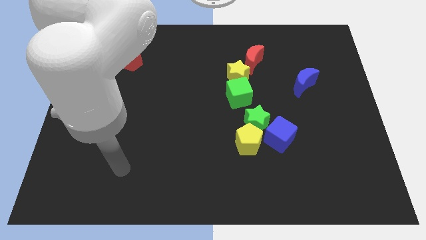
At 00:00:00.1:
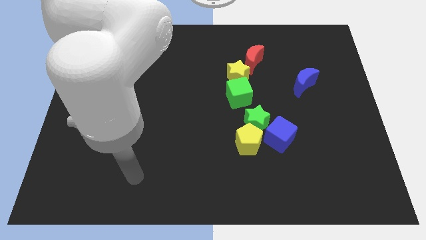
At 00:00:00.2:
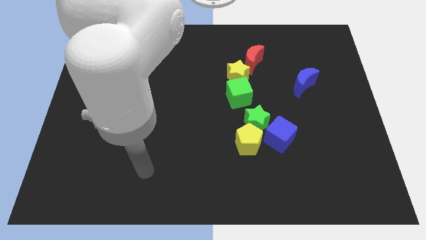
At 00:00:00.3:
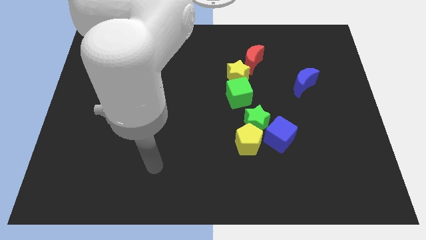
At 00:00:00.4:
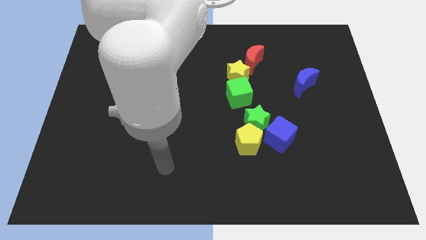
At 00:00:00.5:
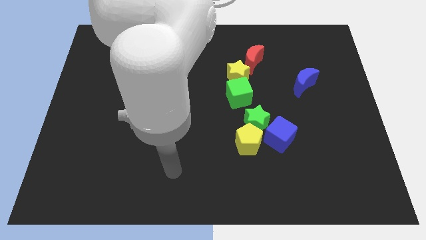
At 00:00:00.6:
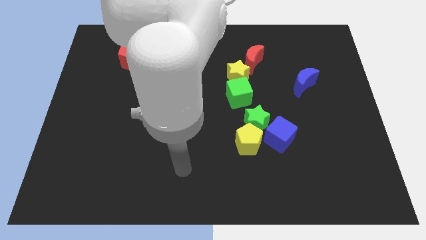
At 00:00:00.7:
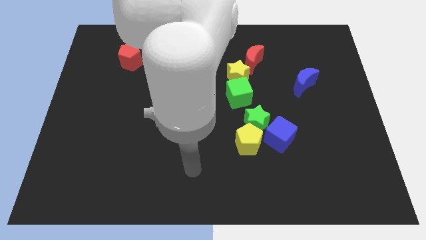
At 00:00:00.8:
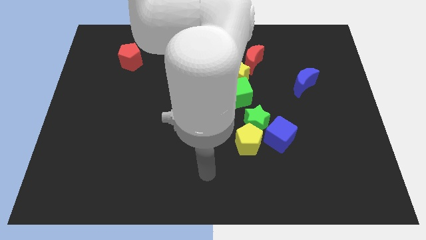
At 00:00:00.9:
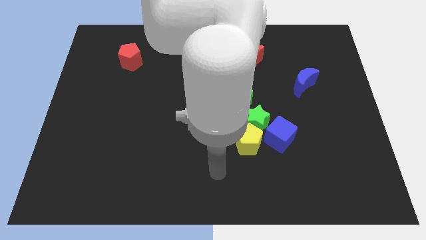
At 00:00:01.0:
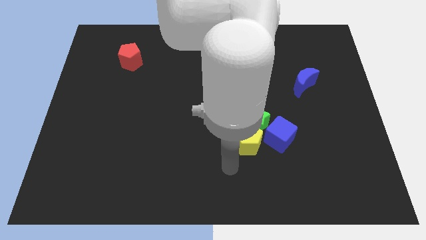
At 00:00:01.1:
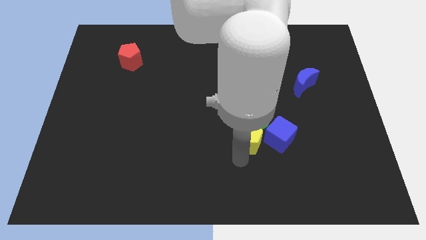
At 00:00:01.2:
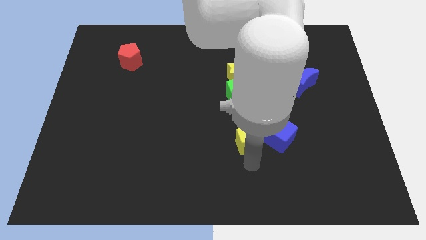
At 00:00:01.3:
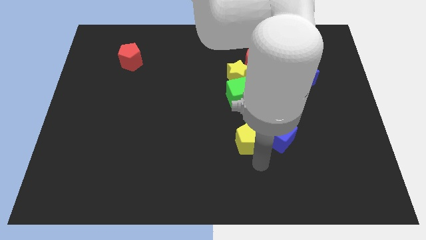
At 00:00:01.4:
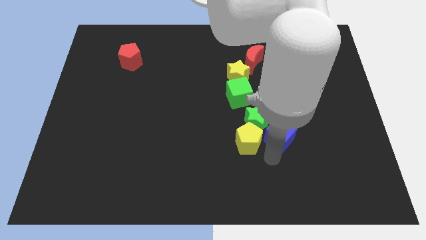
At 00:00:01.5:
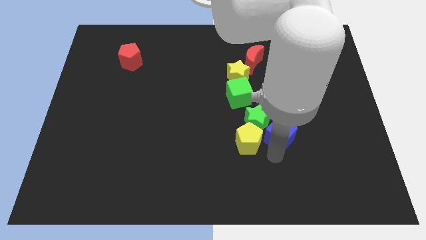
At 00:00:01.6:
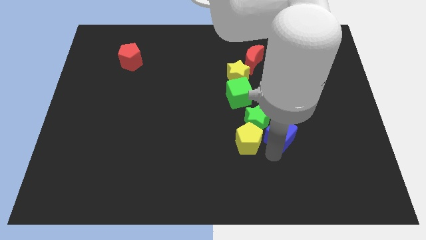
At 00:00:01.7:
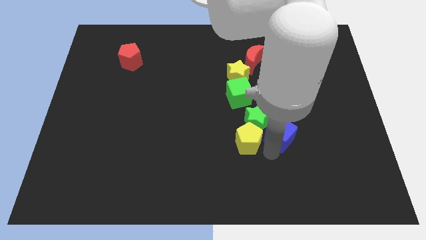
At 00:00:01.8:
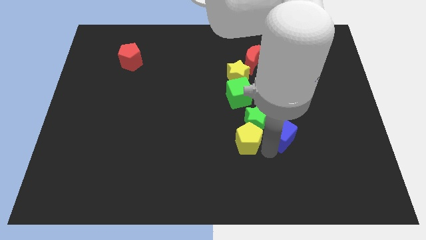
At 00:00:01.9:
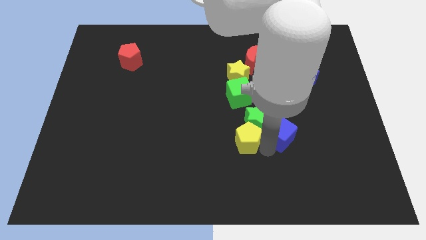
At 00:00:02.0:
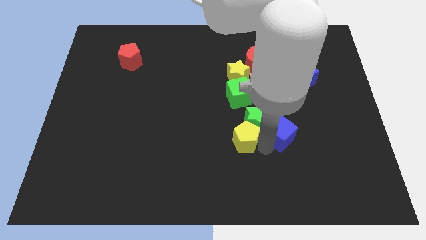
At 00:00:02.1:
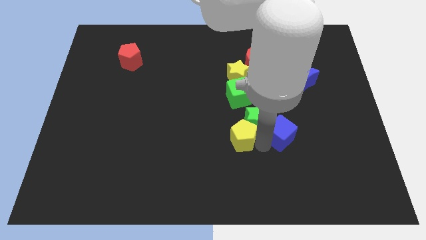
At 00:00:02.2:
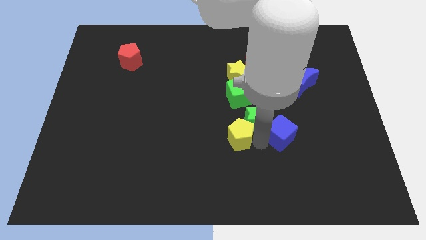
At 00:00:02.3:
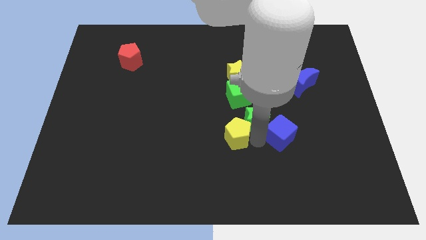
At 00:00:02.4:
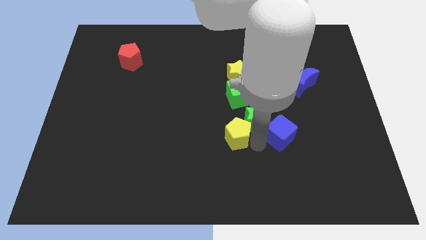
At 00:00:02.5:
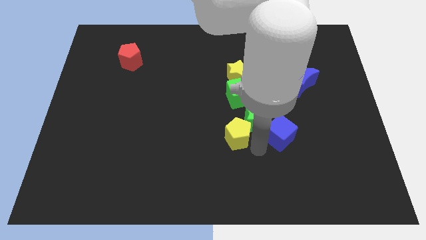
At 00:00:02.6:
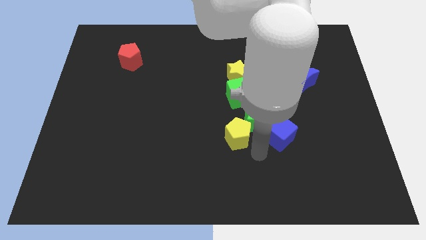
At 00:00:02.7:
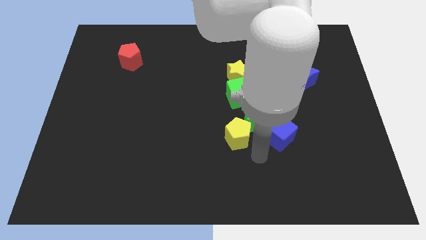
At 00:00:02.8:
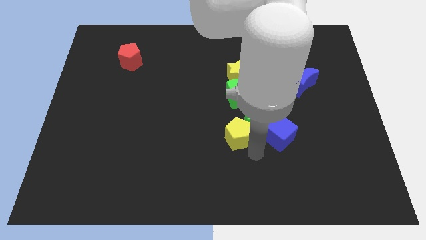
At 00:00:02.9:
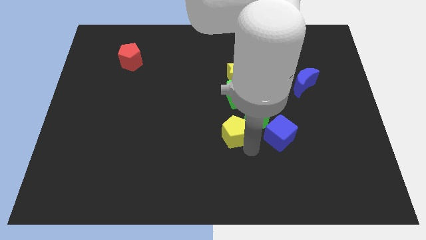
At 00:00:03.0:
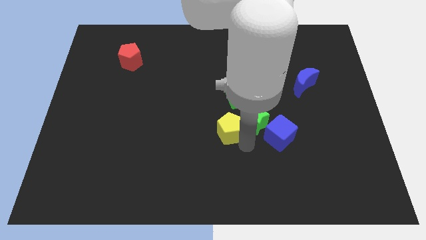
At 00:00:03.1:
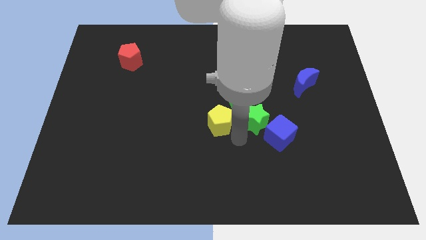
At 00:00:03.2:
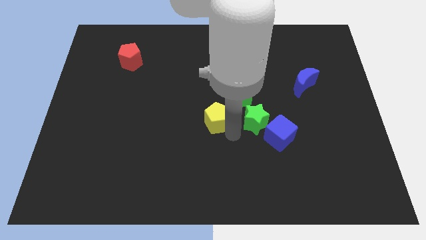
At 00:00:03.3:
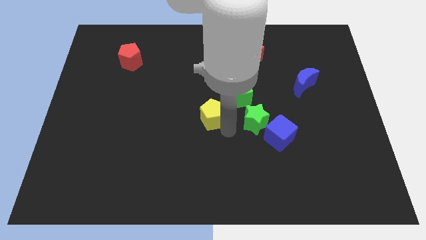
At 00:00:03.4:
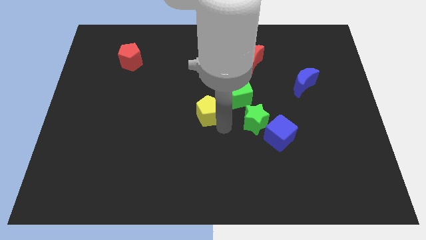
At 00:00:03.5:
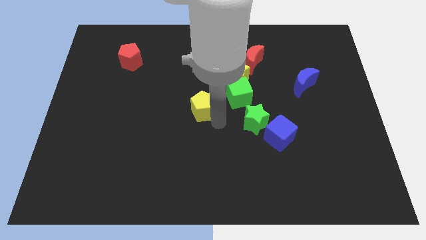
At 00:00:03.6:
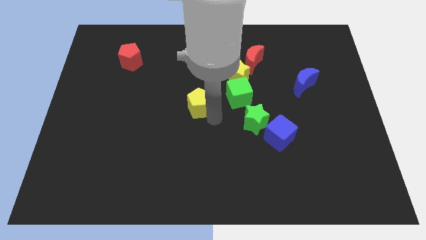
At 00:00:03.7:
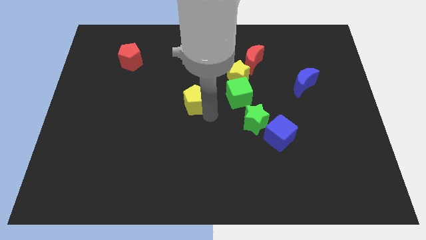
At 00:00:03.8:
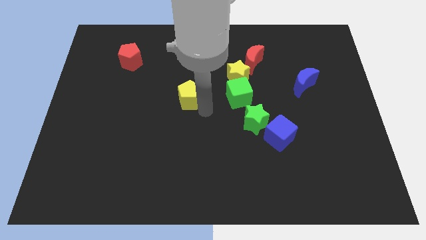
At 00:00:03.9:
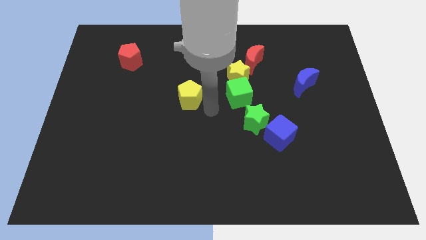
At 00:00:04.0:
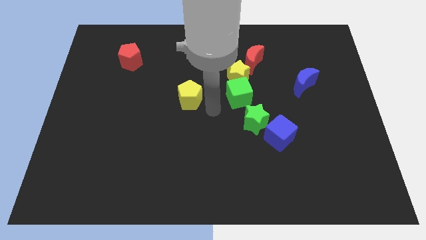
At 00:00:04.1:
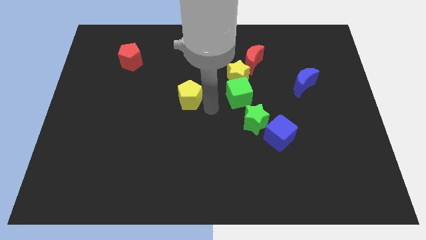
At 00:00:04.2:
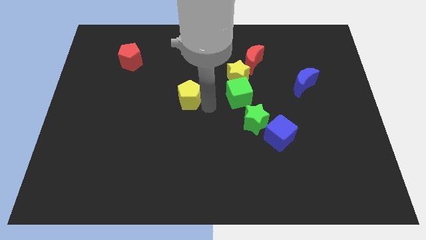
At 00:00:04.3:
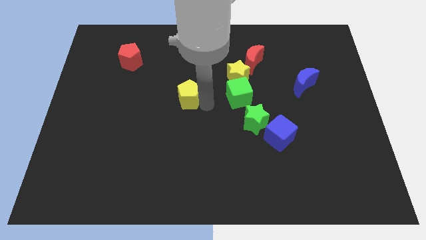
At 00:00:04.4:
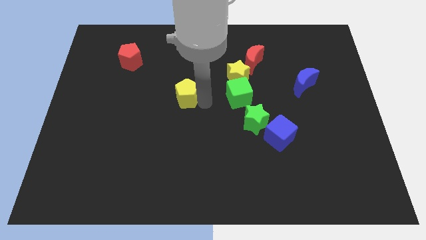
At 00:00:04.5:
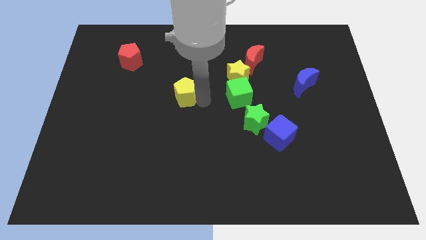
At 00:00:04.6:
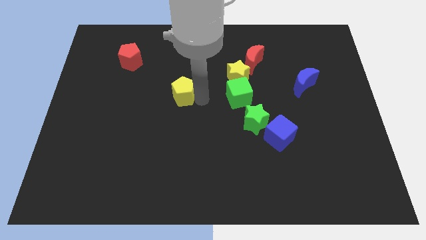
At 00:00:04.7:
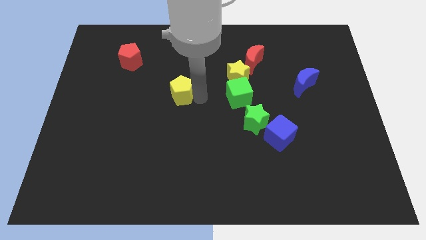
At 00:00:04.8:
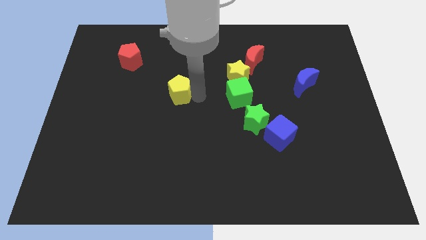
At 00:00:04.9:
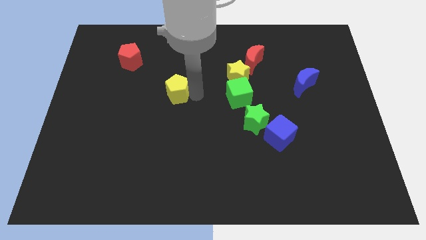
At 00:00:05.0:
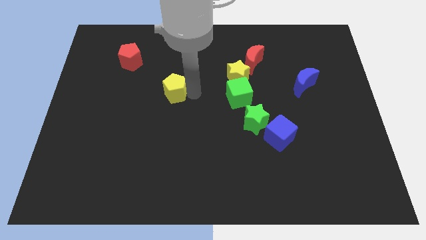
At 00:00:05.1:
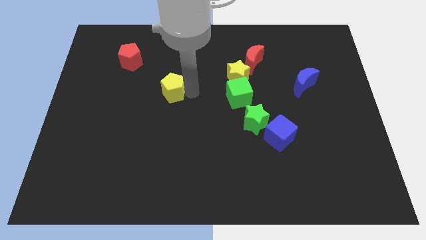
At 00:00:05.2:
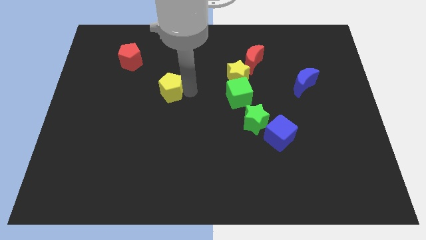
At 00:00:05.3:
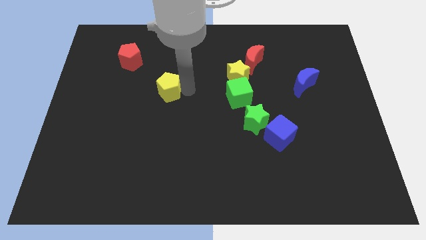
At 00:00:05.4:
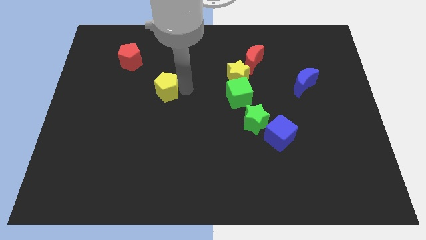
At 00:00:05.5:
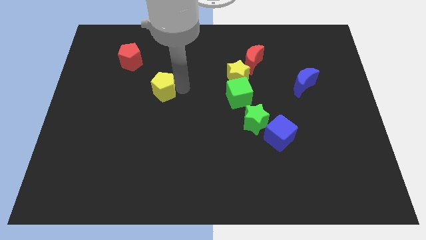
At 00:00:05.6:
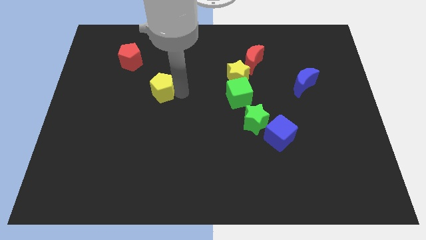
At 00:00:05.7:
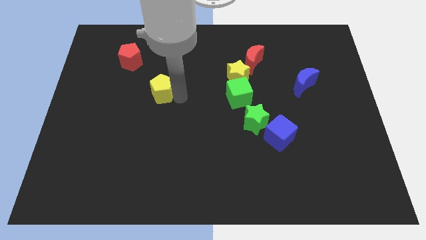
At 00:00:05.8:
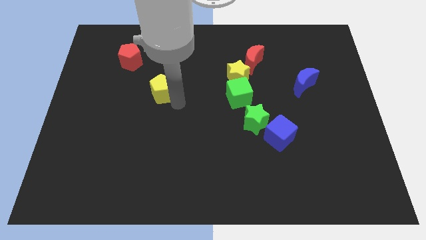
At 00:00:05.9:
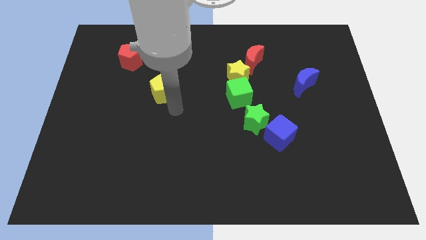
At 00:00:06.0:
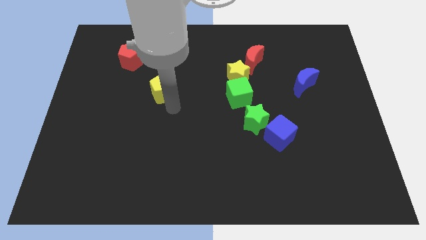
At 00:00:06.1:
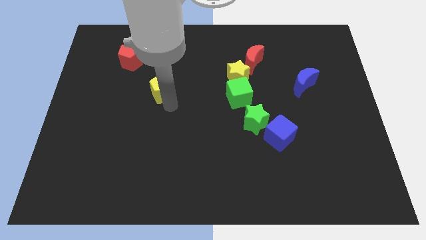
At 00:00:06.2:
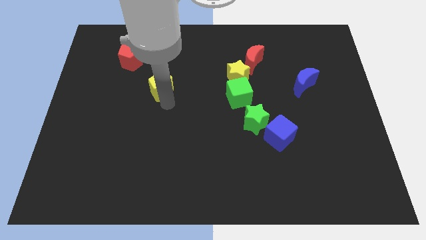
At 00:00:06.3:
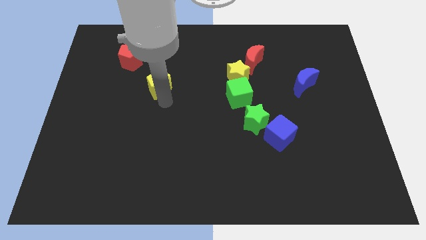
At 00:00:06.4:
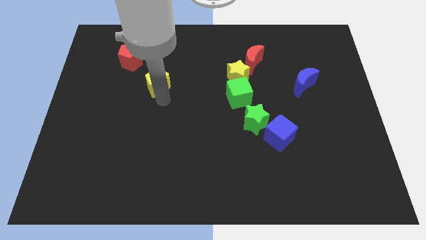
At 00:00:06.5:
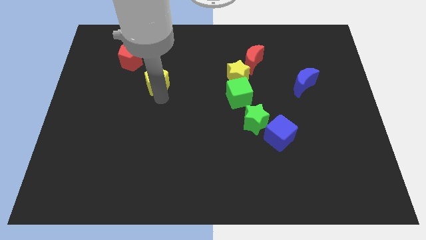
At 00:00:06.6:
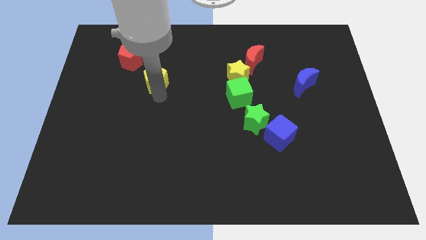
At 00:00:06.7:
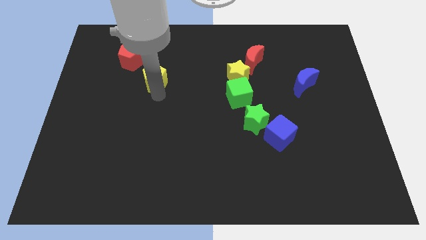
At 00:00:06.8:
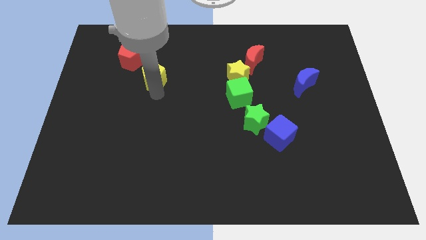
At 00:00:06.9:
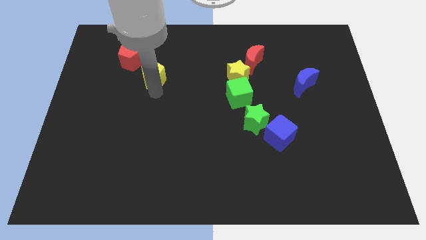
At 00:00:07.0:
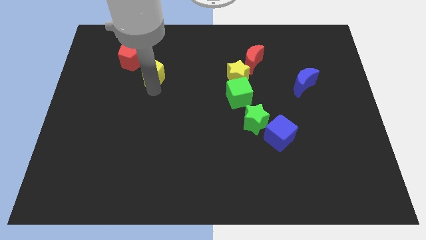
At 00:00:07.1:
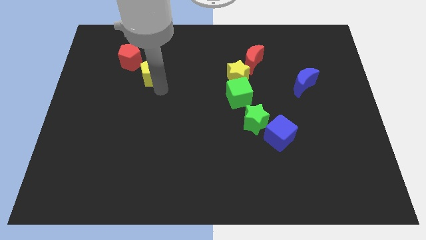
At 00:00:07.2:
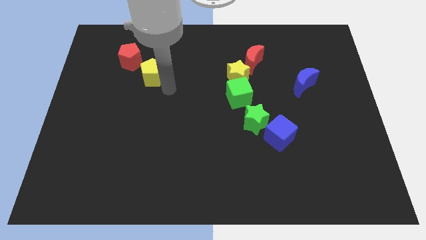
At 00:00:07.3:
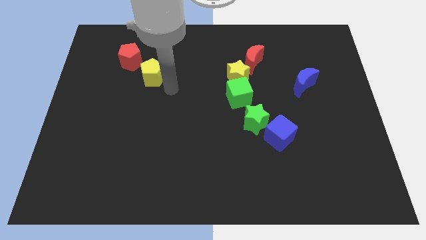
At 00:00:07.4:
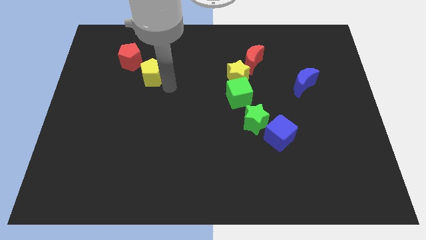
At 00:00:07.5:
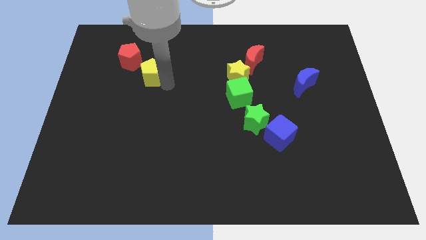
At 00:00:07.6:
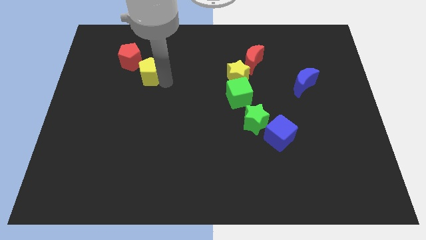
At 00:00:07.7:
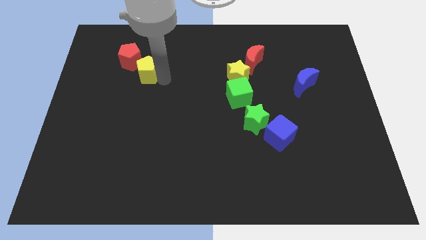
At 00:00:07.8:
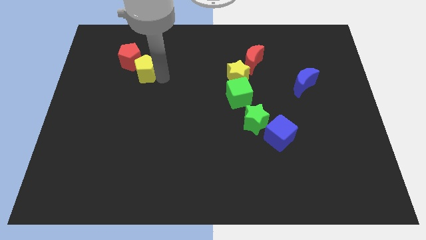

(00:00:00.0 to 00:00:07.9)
put the yellow pentagon close to the red pentagon
